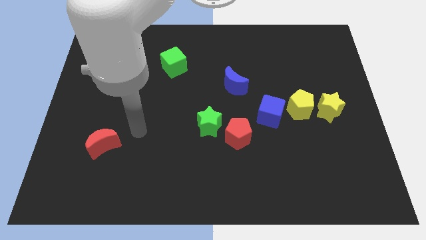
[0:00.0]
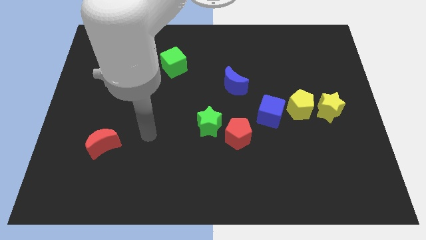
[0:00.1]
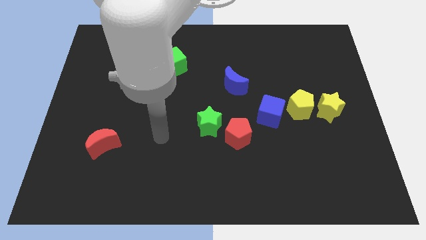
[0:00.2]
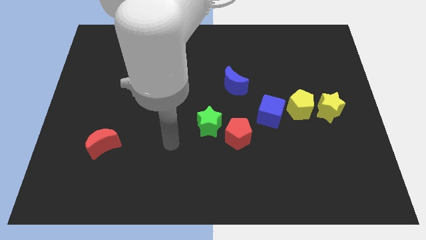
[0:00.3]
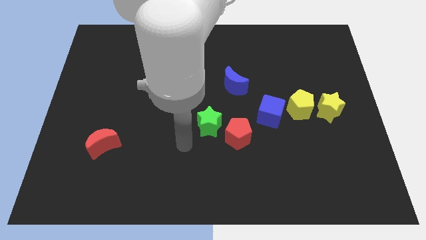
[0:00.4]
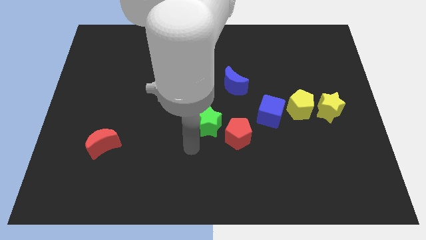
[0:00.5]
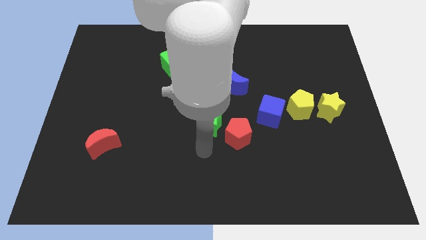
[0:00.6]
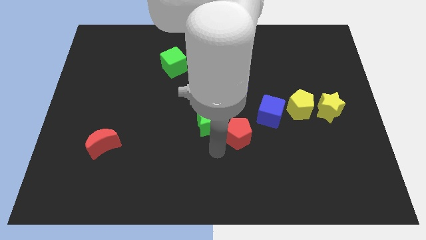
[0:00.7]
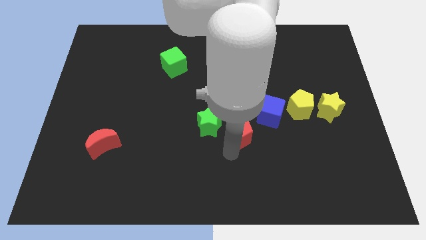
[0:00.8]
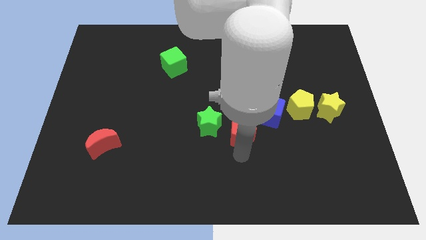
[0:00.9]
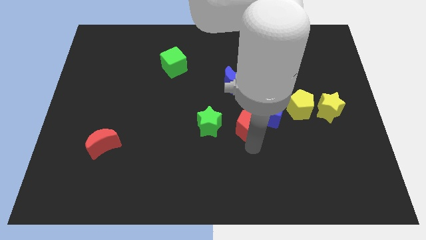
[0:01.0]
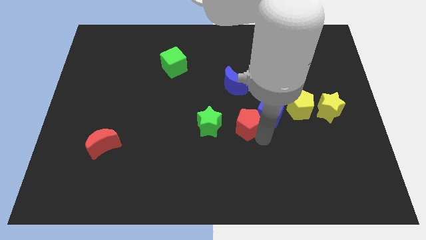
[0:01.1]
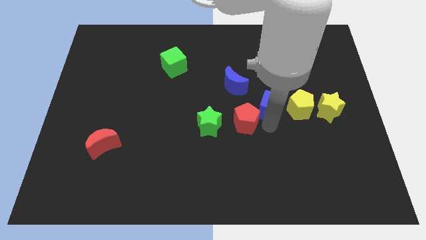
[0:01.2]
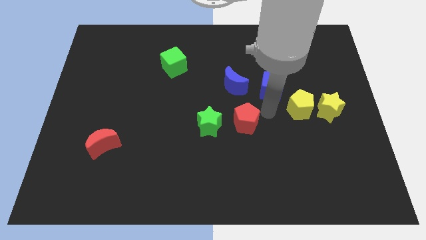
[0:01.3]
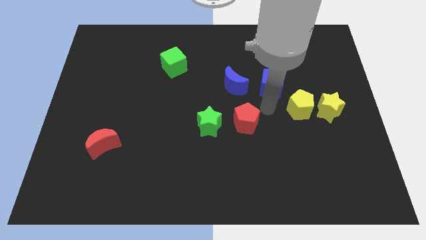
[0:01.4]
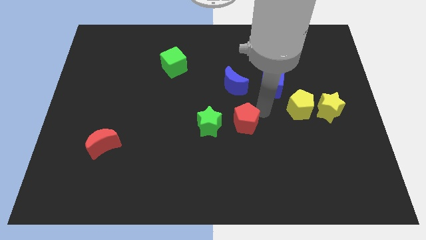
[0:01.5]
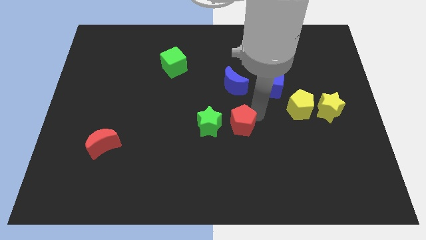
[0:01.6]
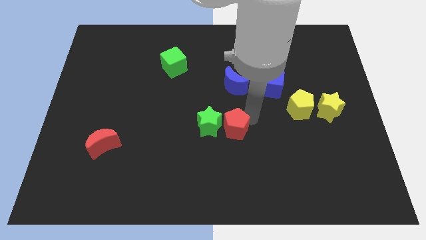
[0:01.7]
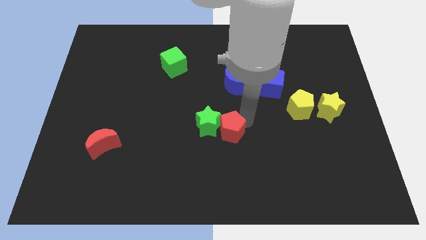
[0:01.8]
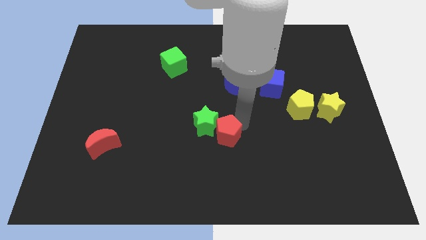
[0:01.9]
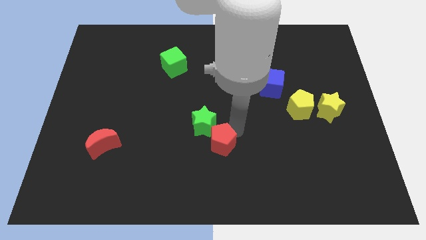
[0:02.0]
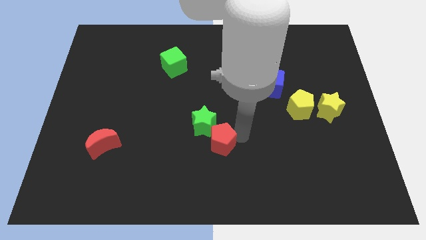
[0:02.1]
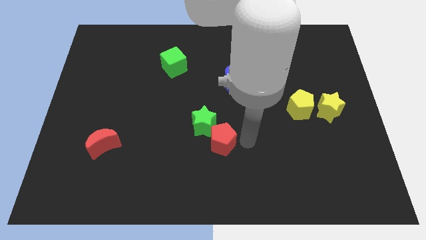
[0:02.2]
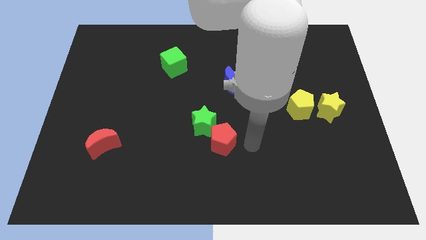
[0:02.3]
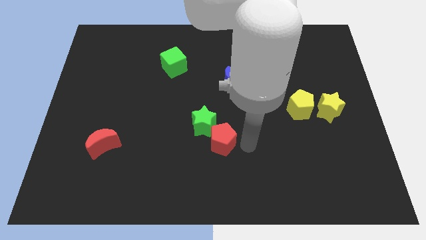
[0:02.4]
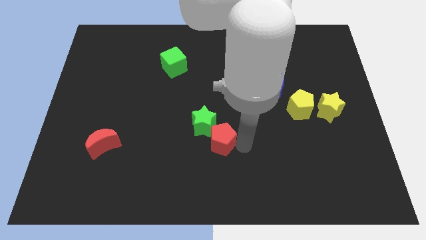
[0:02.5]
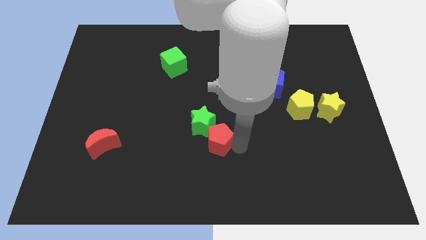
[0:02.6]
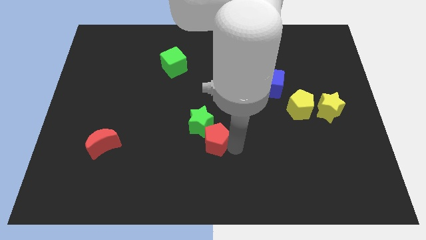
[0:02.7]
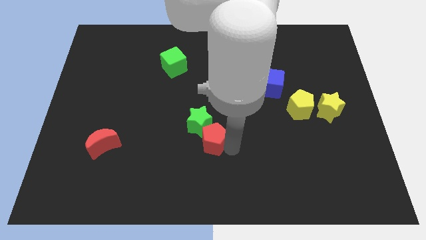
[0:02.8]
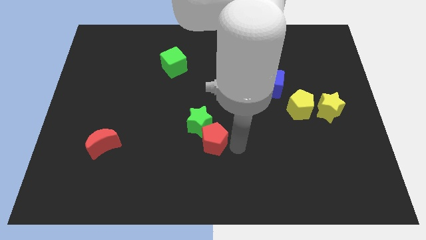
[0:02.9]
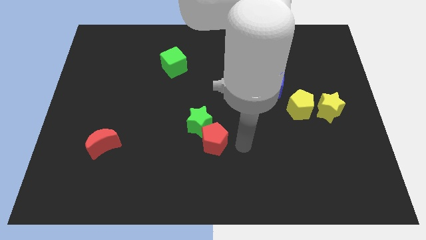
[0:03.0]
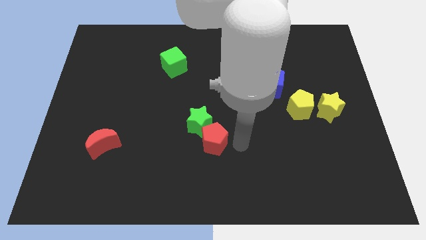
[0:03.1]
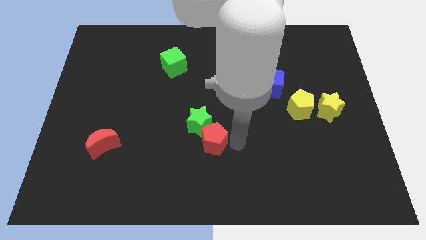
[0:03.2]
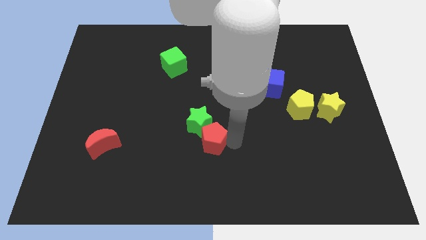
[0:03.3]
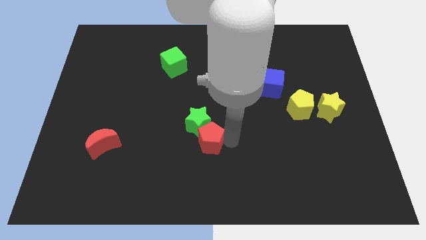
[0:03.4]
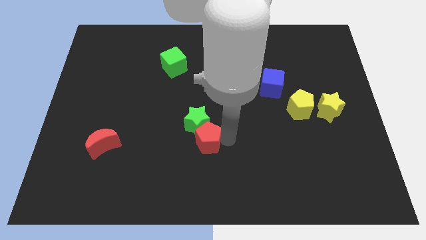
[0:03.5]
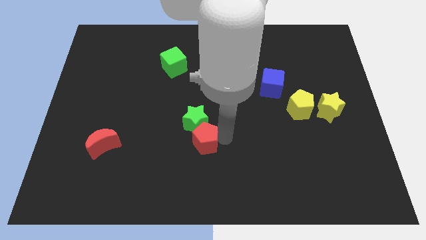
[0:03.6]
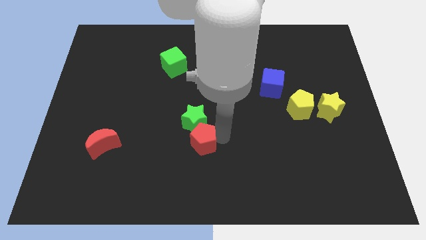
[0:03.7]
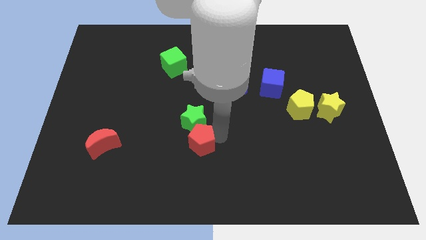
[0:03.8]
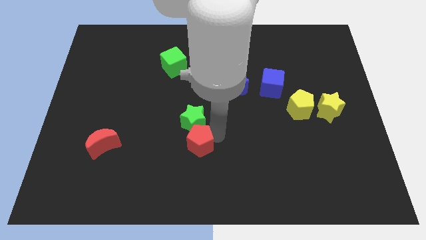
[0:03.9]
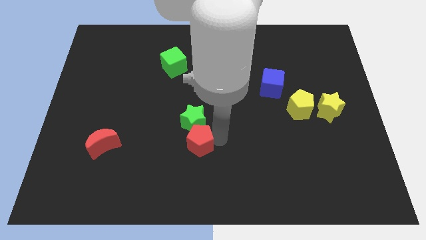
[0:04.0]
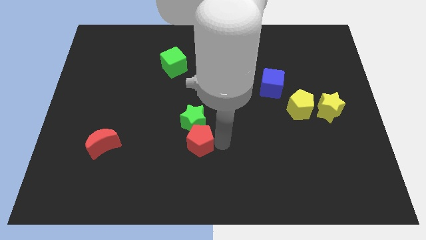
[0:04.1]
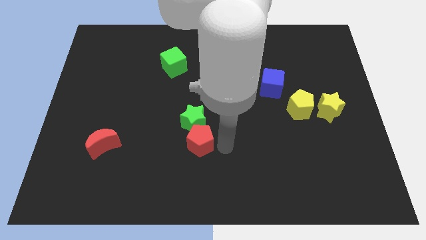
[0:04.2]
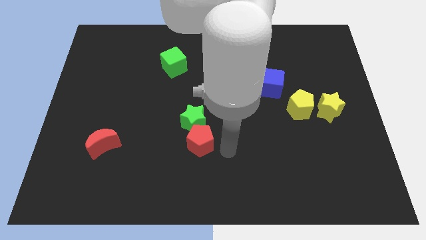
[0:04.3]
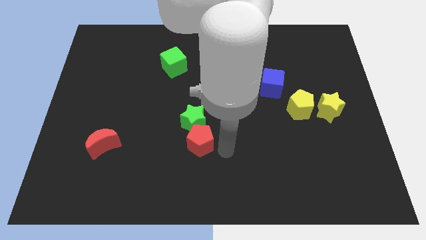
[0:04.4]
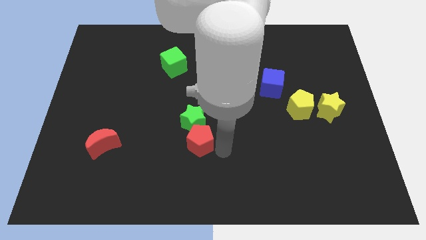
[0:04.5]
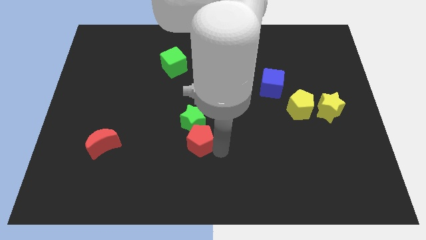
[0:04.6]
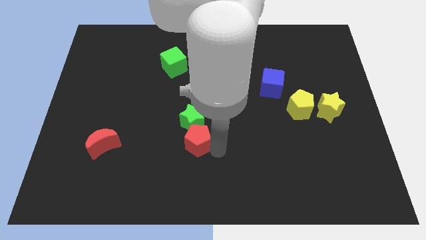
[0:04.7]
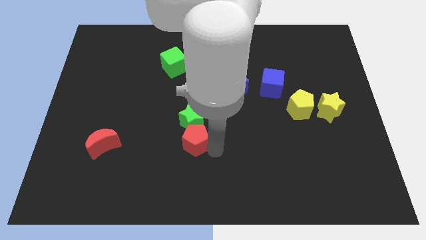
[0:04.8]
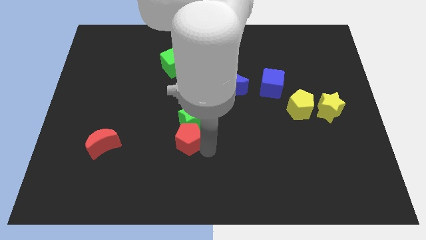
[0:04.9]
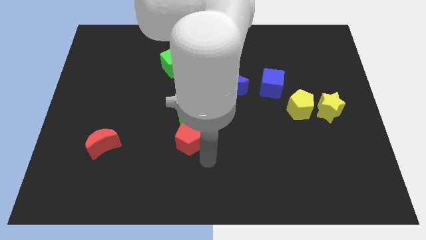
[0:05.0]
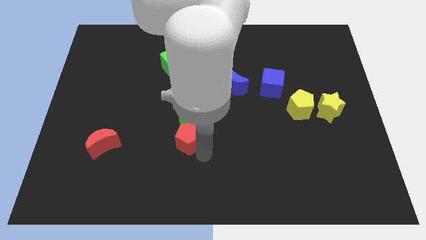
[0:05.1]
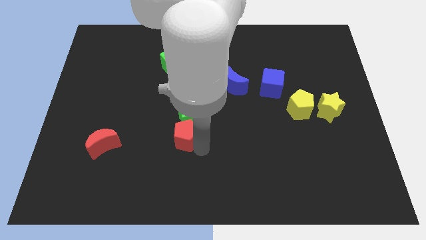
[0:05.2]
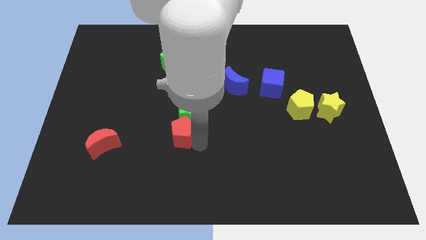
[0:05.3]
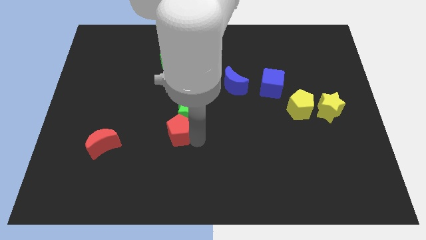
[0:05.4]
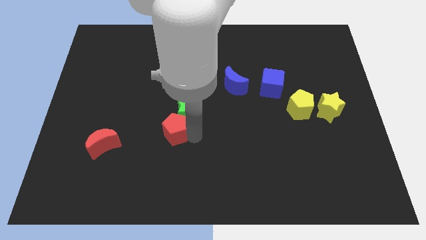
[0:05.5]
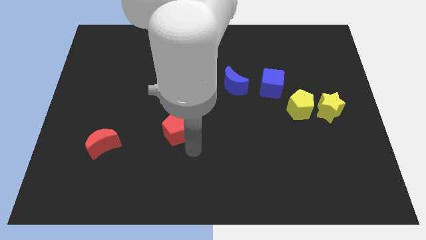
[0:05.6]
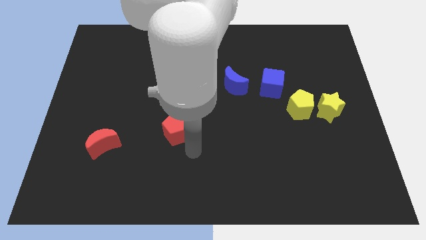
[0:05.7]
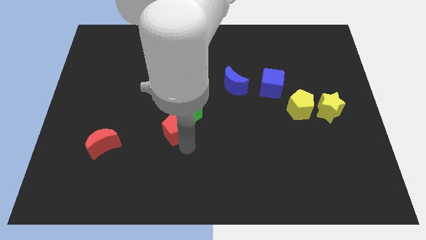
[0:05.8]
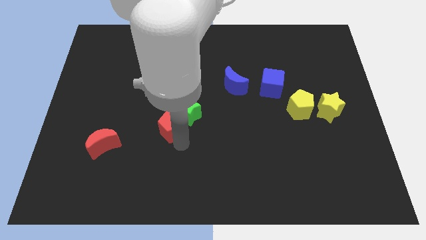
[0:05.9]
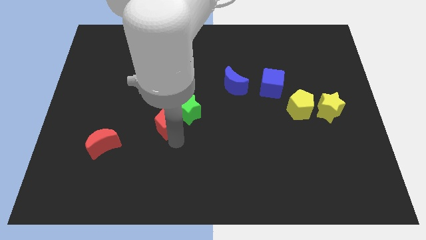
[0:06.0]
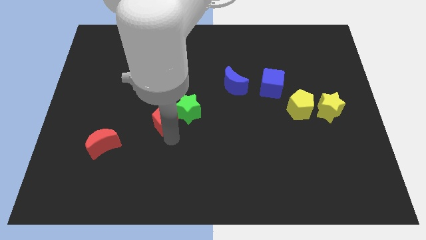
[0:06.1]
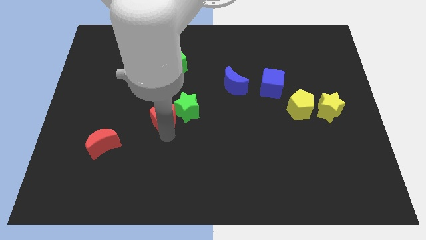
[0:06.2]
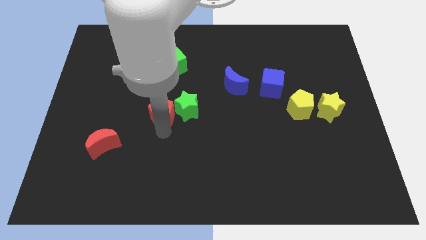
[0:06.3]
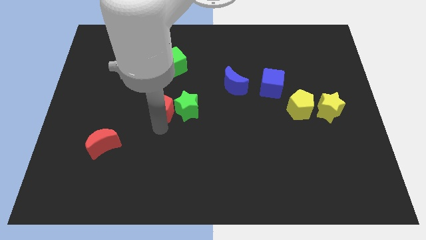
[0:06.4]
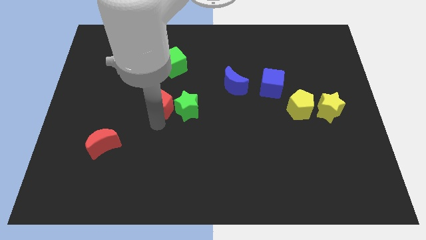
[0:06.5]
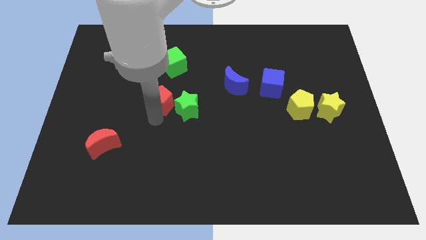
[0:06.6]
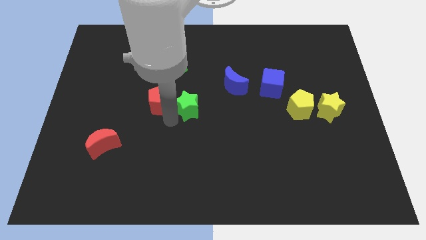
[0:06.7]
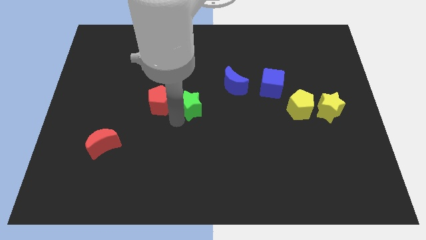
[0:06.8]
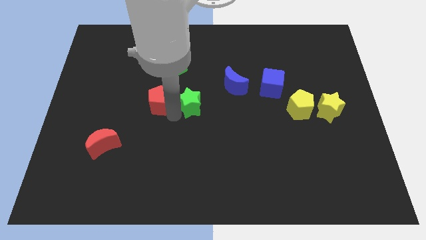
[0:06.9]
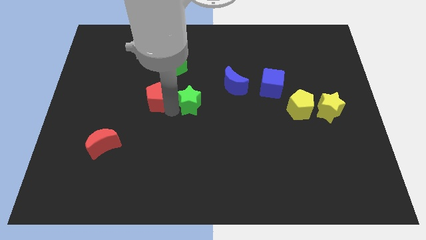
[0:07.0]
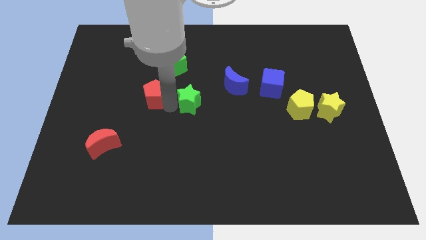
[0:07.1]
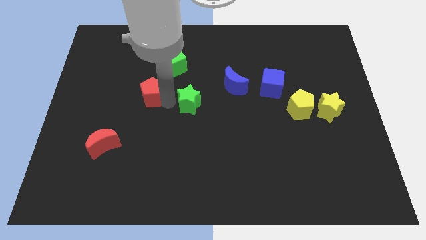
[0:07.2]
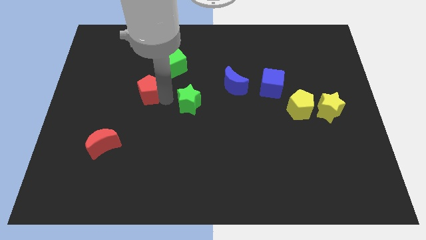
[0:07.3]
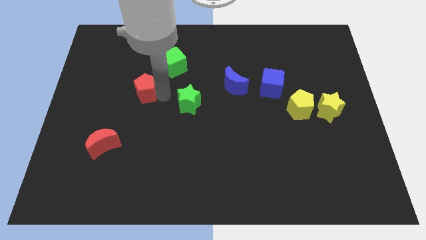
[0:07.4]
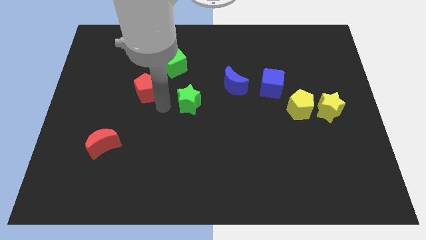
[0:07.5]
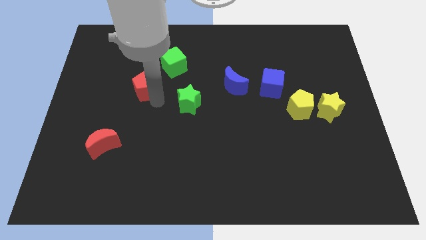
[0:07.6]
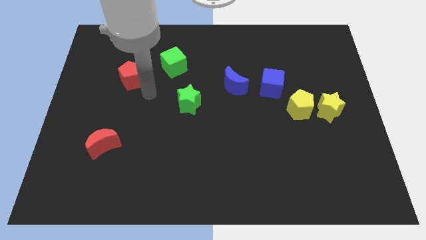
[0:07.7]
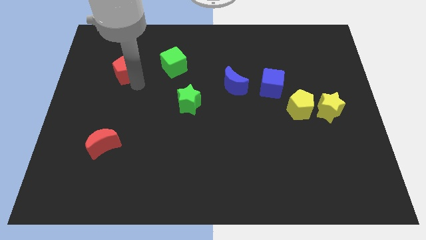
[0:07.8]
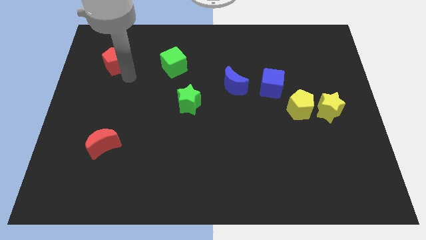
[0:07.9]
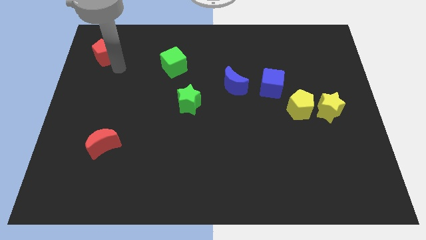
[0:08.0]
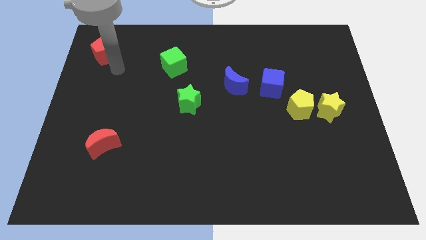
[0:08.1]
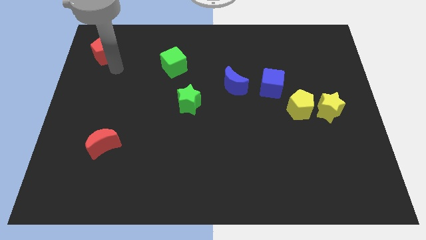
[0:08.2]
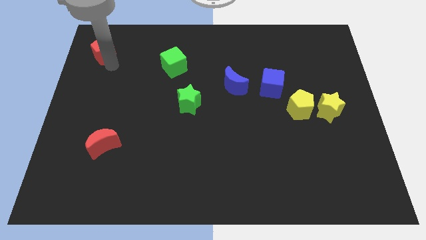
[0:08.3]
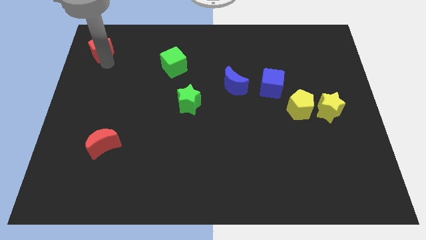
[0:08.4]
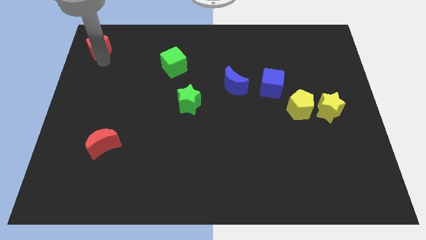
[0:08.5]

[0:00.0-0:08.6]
slide the red pentagon to the top left of the board
